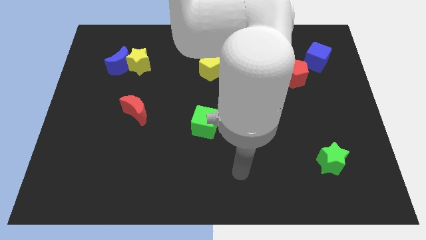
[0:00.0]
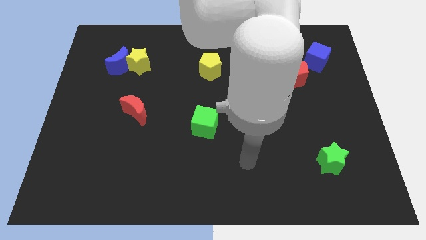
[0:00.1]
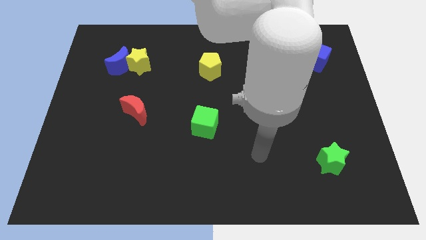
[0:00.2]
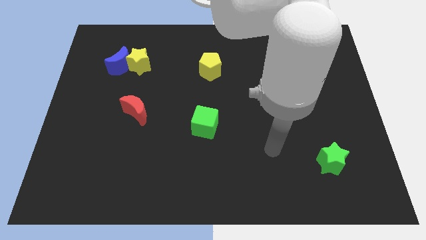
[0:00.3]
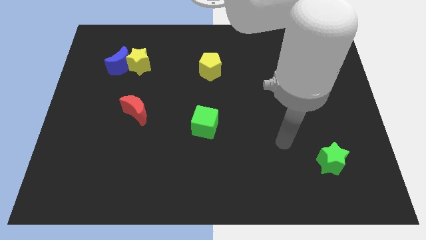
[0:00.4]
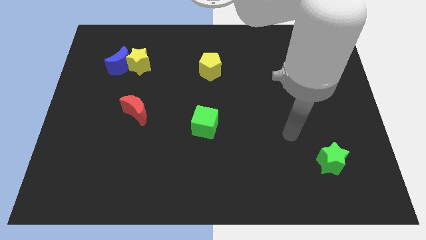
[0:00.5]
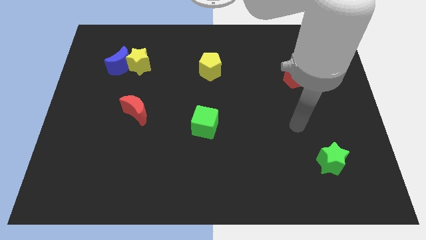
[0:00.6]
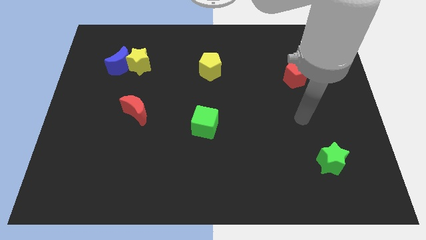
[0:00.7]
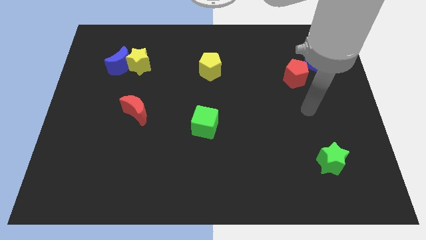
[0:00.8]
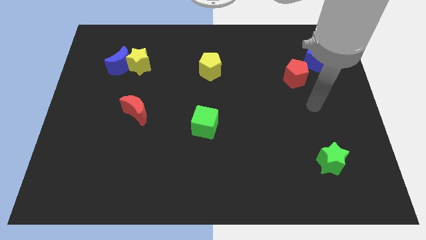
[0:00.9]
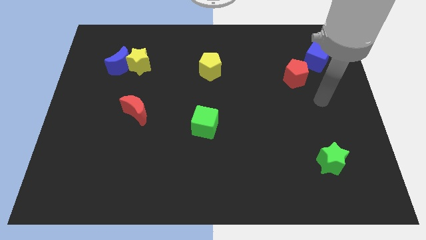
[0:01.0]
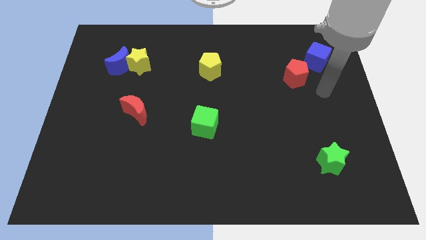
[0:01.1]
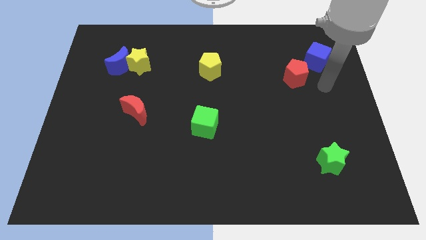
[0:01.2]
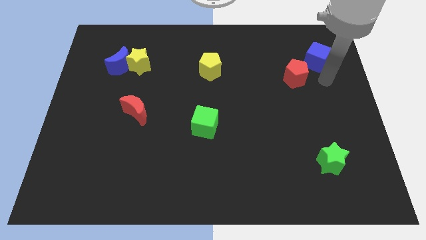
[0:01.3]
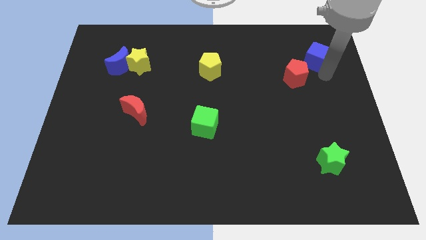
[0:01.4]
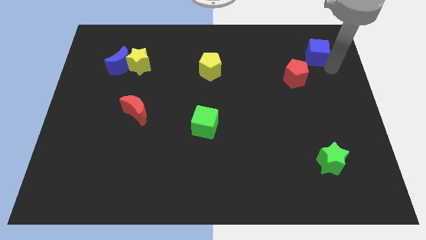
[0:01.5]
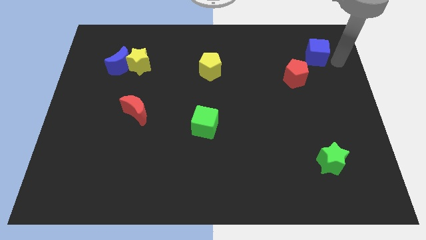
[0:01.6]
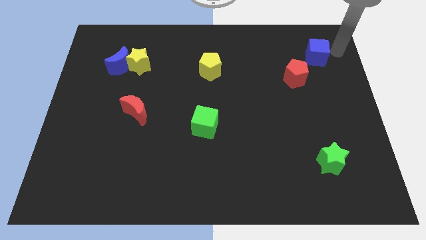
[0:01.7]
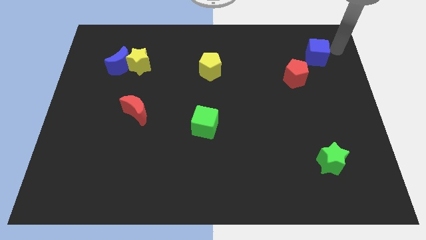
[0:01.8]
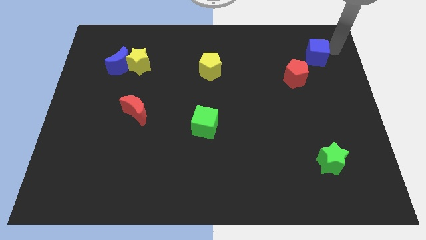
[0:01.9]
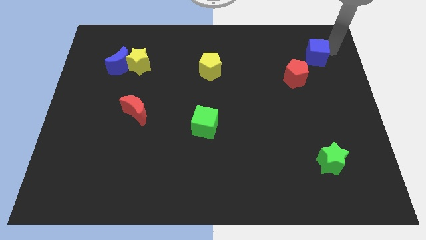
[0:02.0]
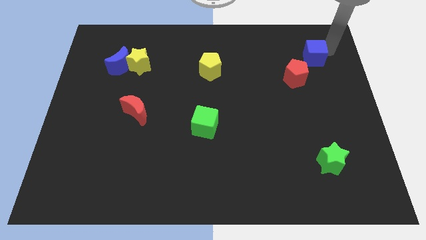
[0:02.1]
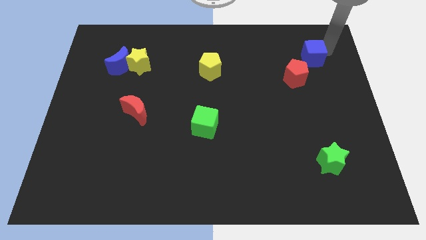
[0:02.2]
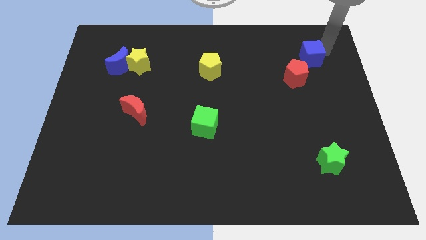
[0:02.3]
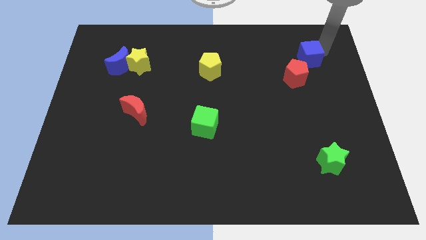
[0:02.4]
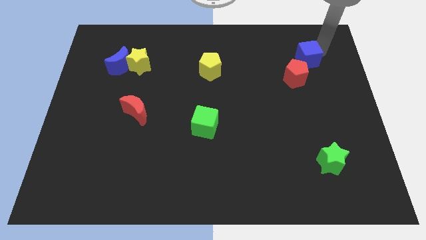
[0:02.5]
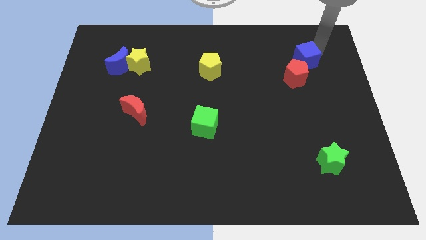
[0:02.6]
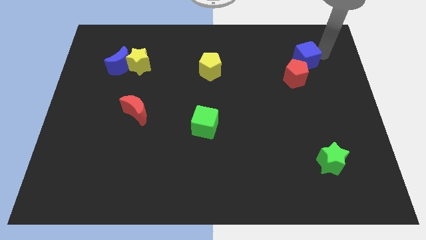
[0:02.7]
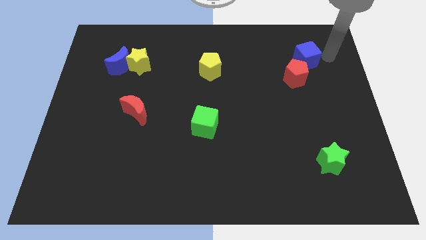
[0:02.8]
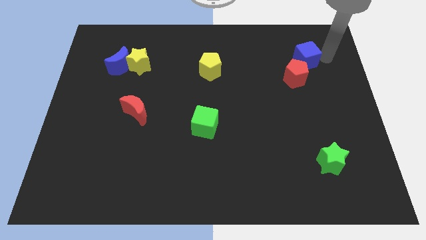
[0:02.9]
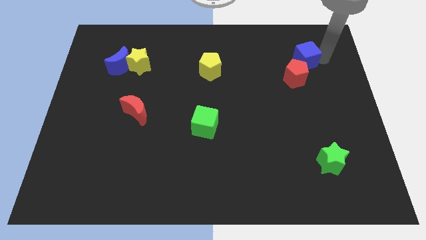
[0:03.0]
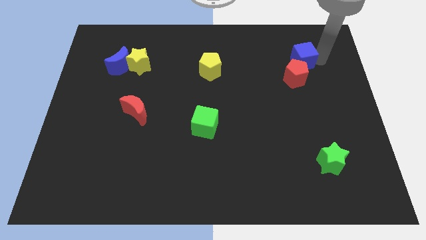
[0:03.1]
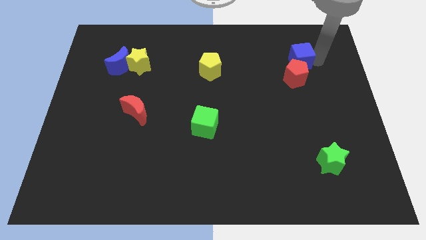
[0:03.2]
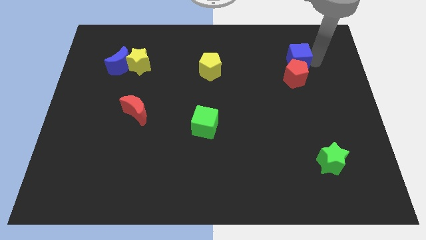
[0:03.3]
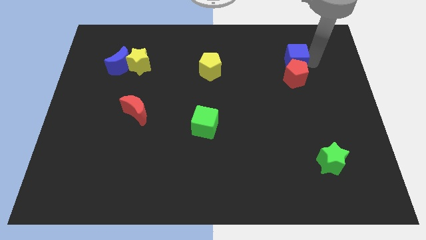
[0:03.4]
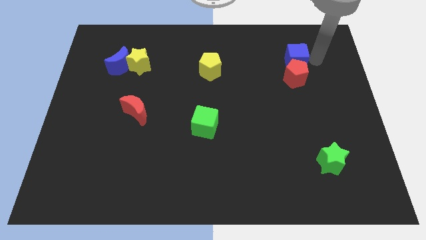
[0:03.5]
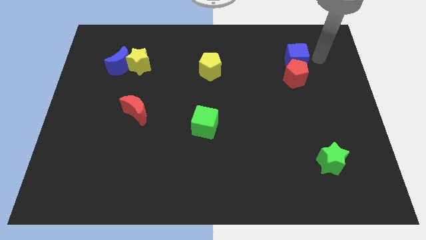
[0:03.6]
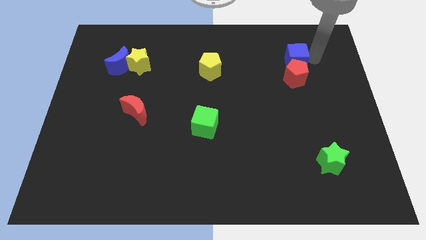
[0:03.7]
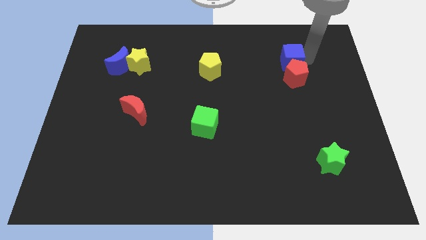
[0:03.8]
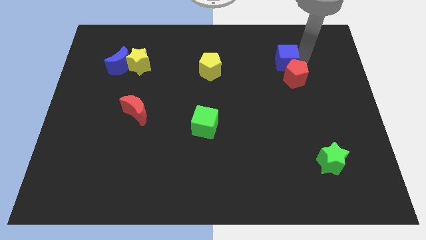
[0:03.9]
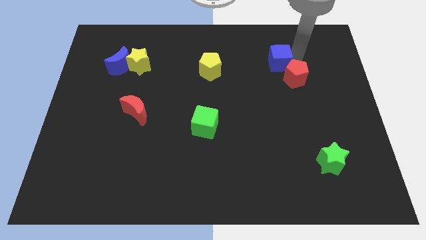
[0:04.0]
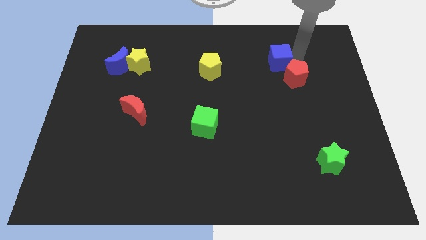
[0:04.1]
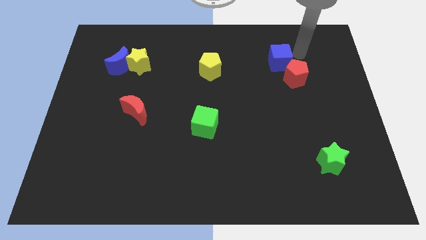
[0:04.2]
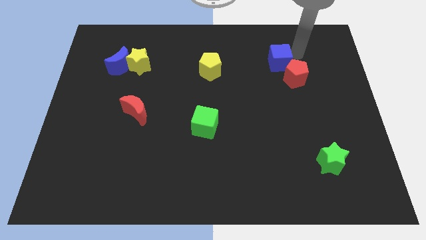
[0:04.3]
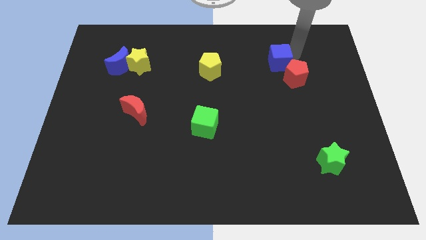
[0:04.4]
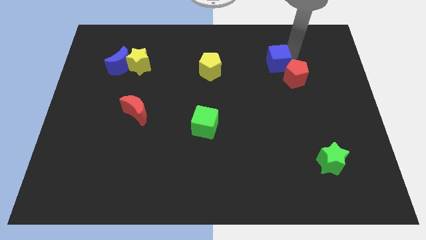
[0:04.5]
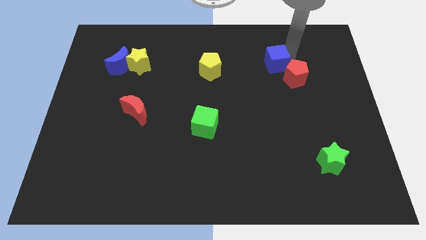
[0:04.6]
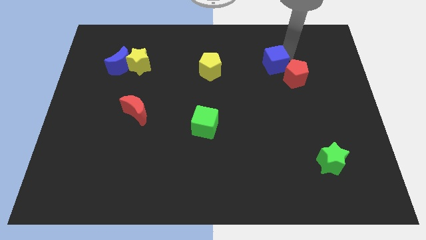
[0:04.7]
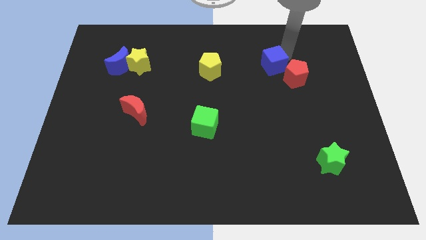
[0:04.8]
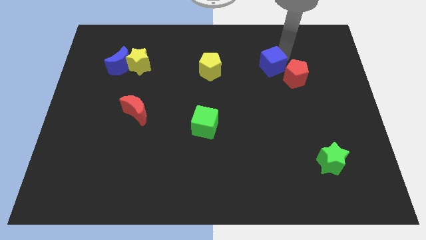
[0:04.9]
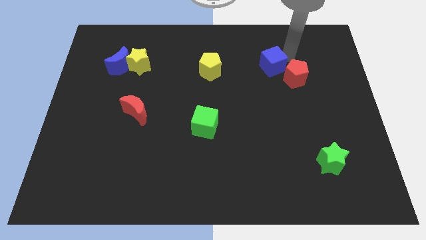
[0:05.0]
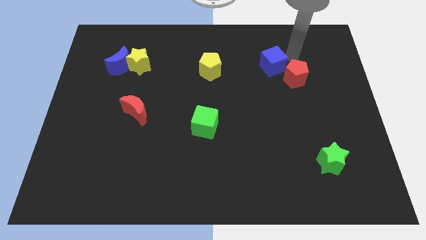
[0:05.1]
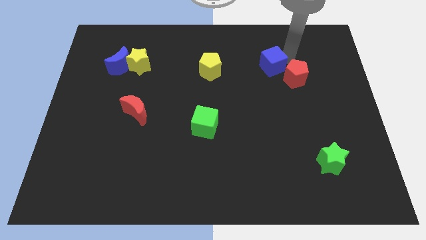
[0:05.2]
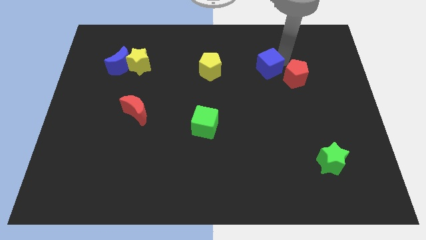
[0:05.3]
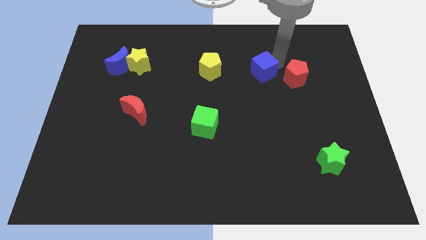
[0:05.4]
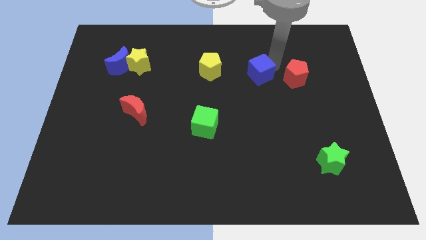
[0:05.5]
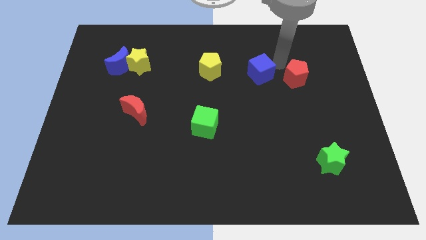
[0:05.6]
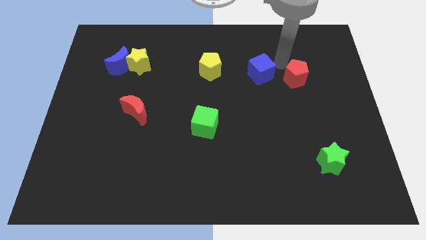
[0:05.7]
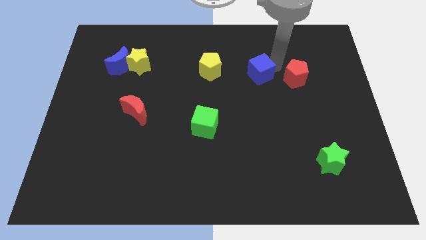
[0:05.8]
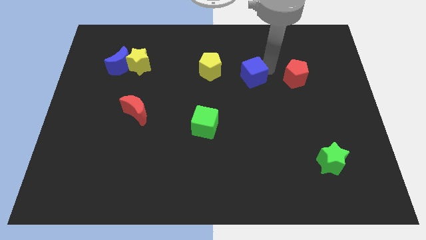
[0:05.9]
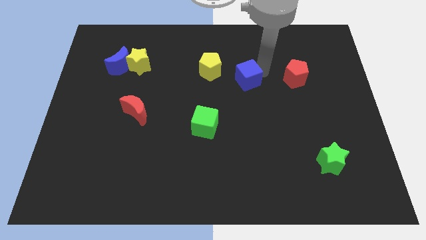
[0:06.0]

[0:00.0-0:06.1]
put the blue cube to the center

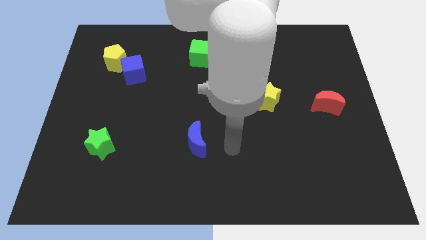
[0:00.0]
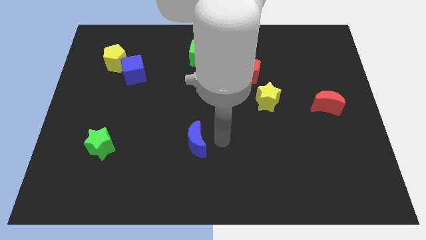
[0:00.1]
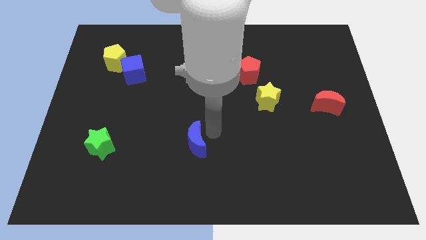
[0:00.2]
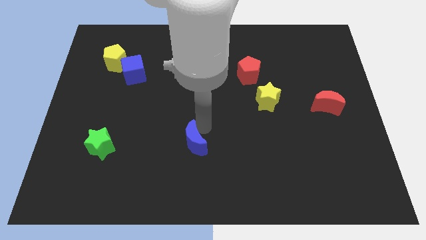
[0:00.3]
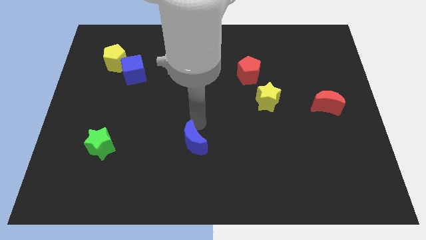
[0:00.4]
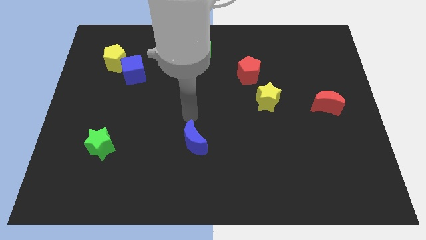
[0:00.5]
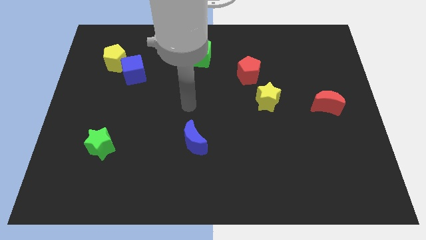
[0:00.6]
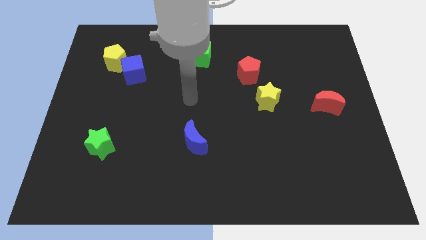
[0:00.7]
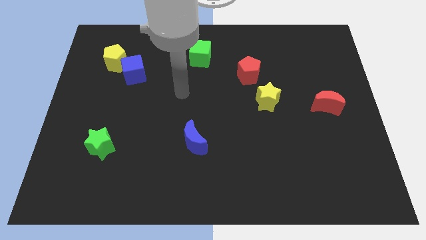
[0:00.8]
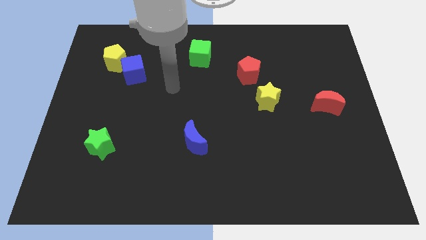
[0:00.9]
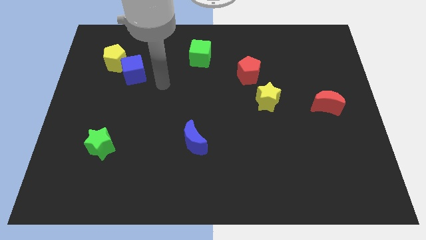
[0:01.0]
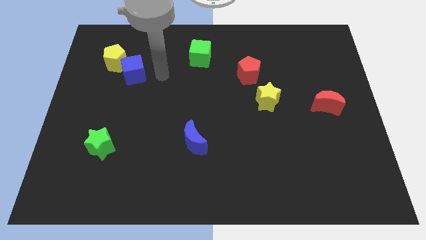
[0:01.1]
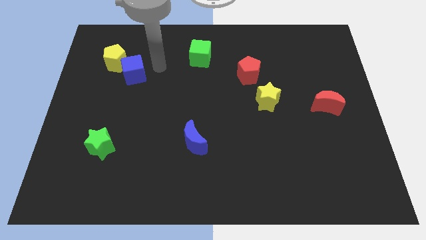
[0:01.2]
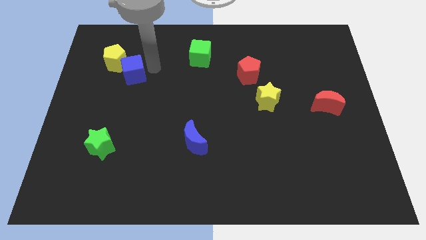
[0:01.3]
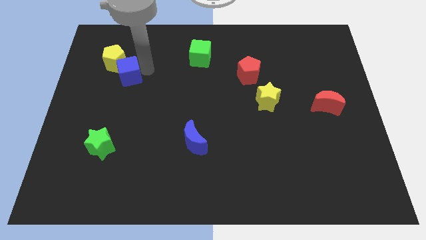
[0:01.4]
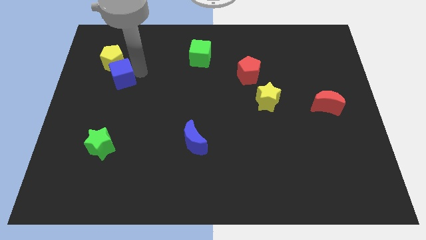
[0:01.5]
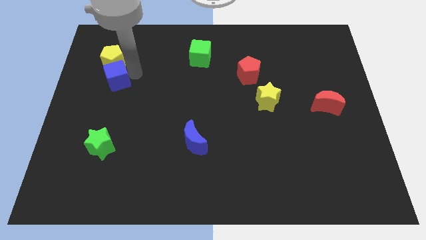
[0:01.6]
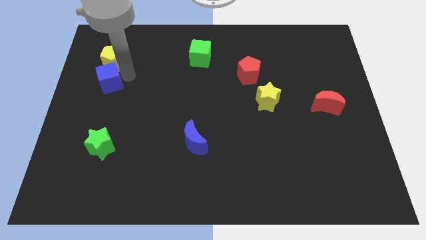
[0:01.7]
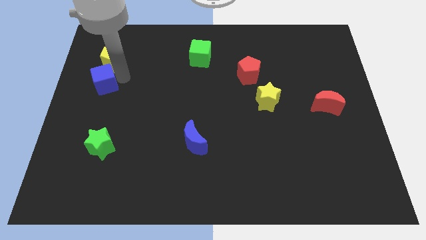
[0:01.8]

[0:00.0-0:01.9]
put the blue cube to the left side
